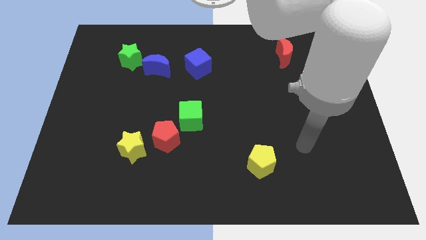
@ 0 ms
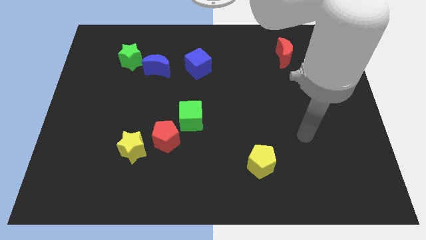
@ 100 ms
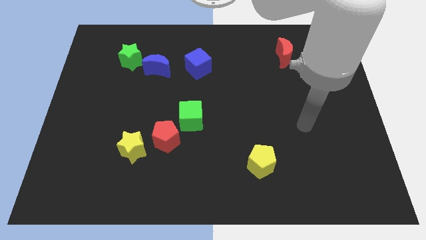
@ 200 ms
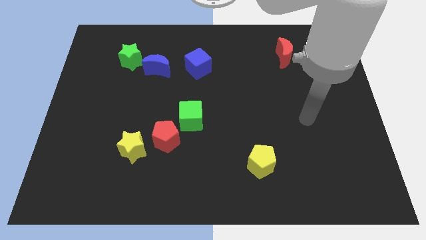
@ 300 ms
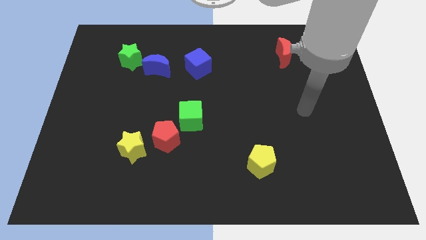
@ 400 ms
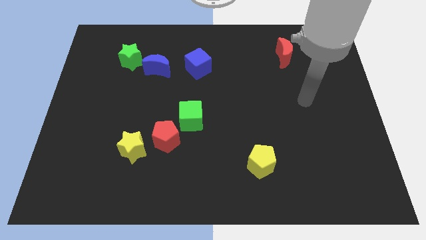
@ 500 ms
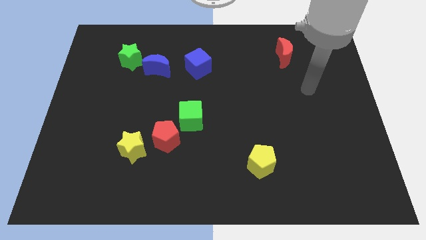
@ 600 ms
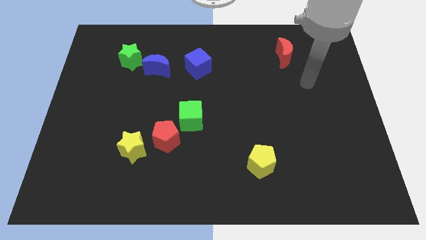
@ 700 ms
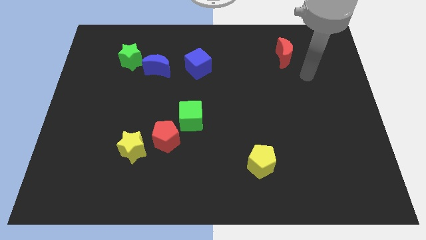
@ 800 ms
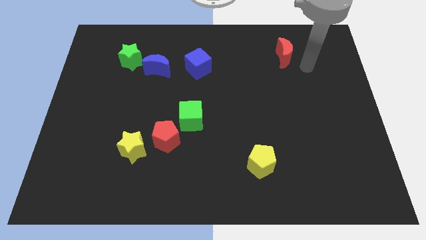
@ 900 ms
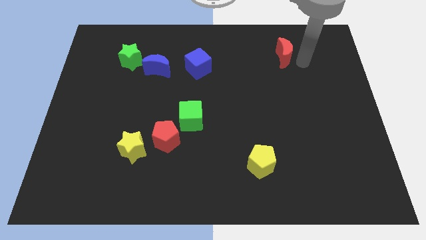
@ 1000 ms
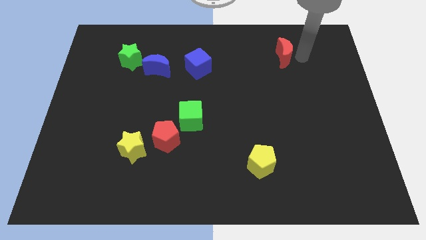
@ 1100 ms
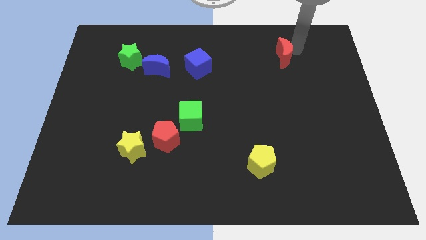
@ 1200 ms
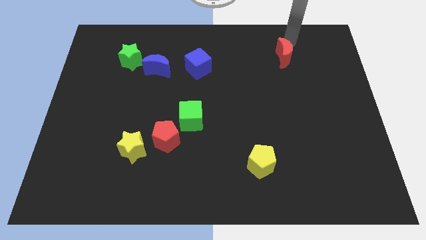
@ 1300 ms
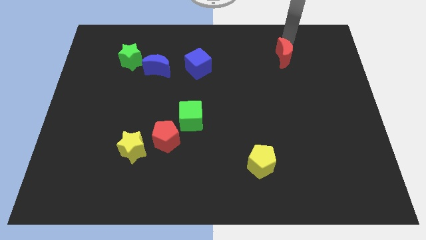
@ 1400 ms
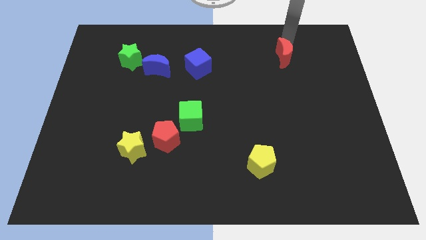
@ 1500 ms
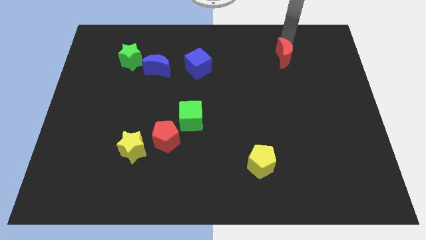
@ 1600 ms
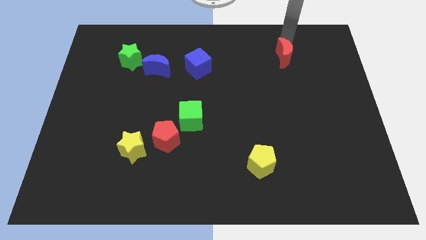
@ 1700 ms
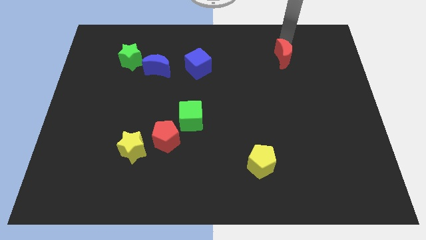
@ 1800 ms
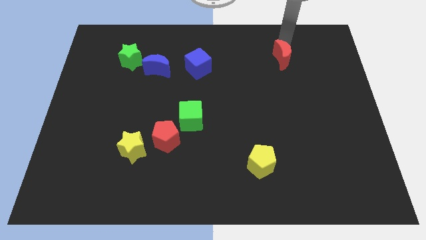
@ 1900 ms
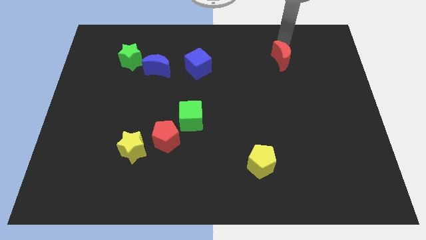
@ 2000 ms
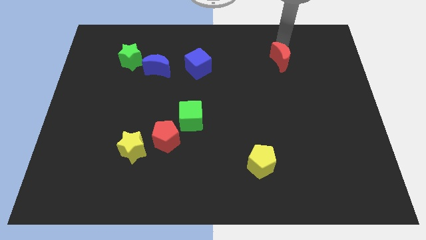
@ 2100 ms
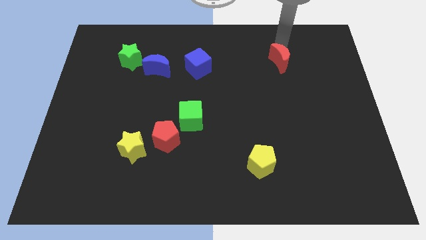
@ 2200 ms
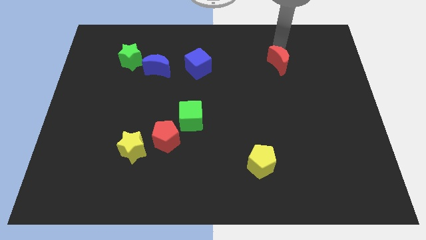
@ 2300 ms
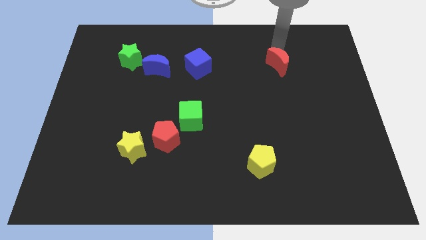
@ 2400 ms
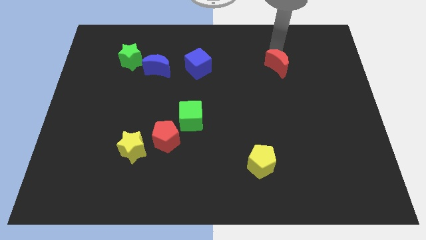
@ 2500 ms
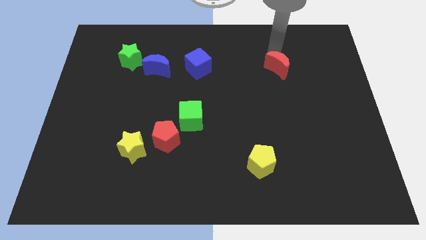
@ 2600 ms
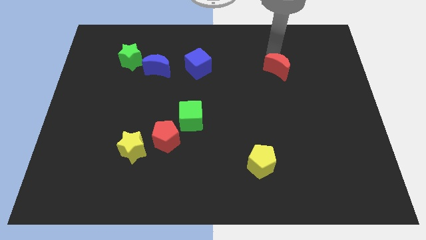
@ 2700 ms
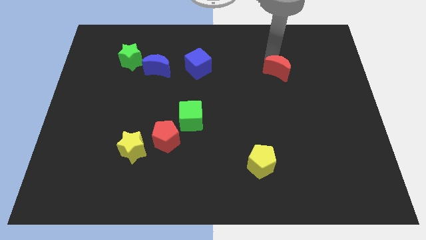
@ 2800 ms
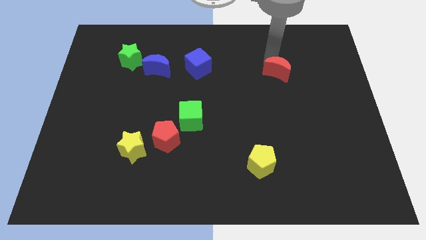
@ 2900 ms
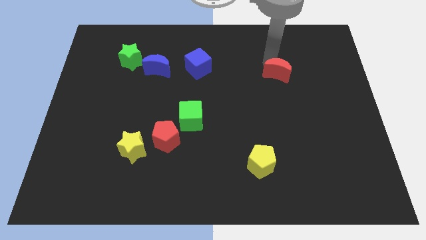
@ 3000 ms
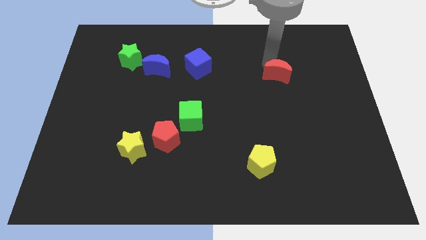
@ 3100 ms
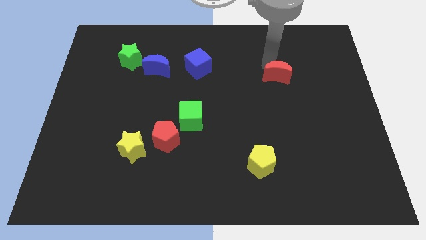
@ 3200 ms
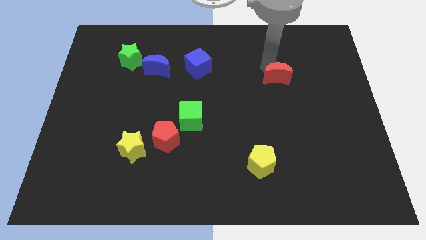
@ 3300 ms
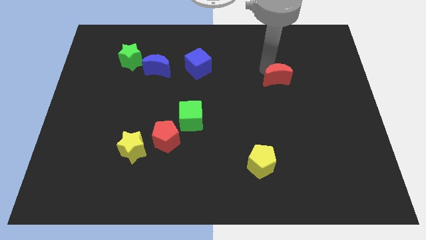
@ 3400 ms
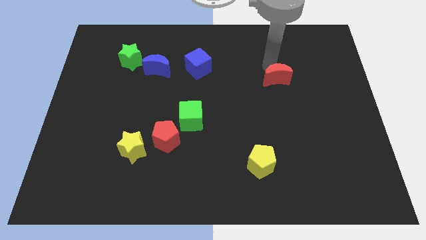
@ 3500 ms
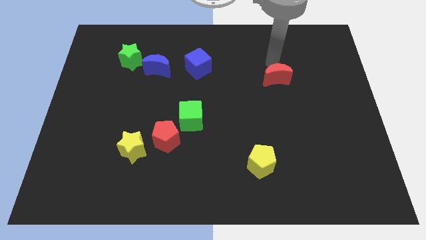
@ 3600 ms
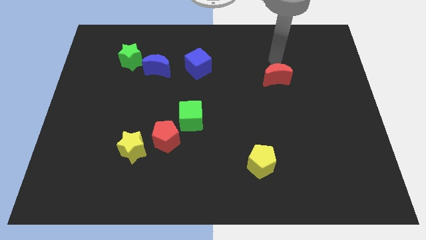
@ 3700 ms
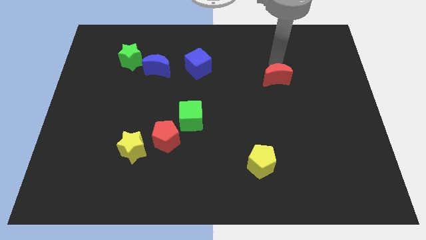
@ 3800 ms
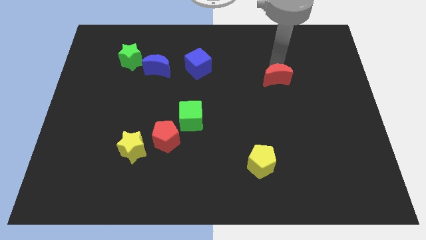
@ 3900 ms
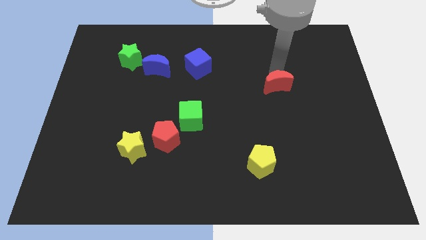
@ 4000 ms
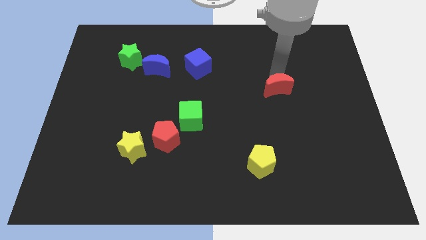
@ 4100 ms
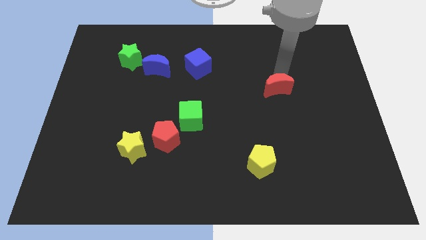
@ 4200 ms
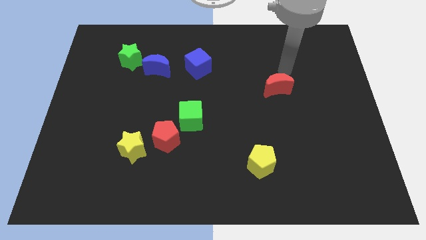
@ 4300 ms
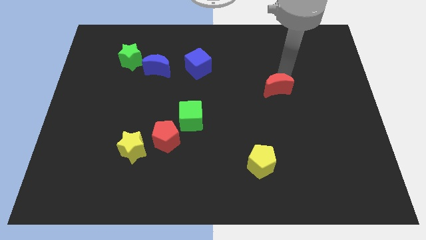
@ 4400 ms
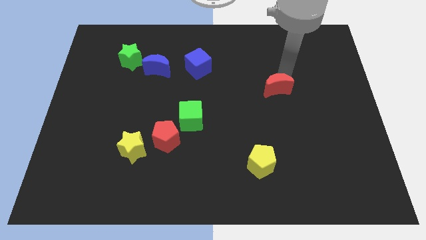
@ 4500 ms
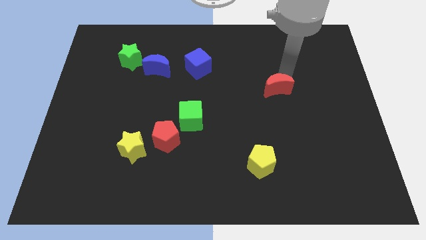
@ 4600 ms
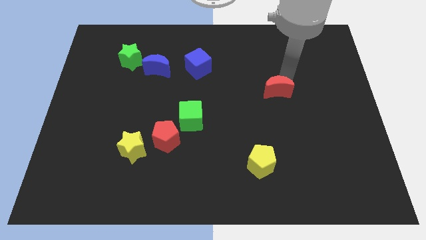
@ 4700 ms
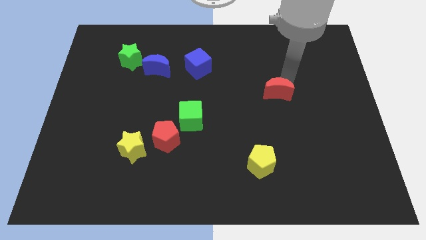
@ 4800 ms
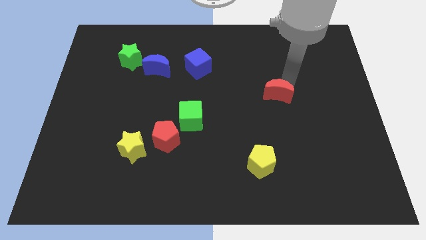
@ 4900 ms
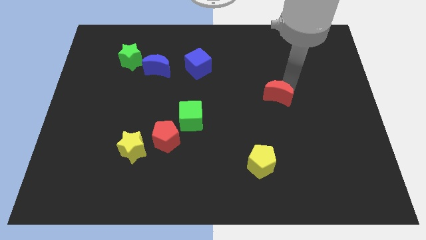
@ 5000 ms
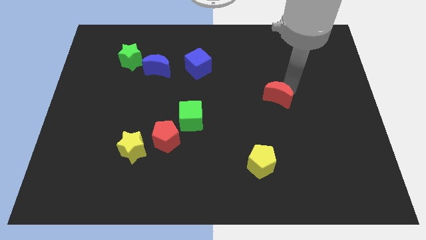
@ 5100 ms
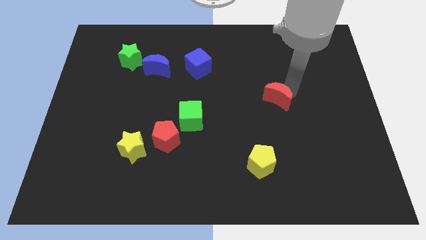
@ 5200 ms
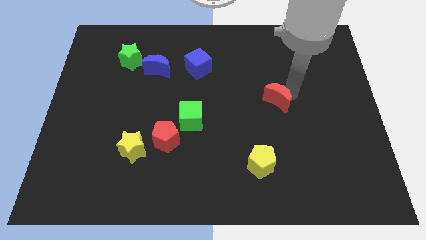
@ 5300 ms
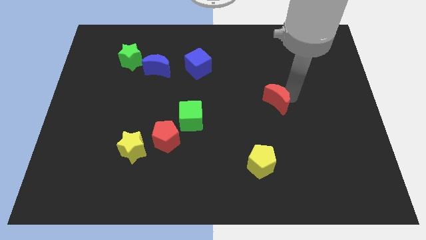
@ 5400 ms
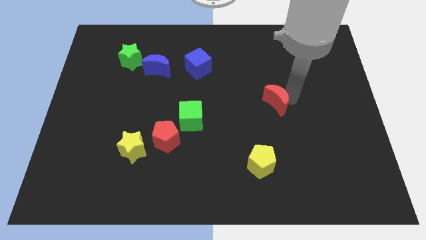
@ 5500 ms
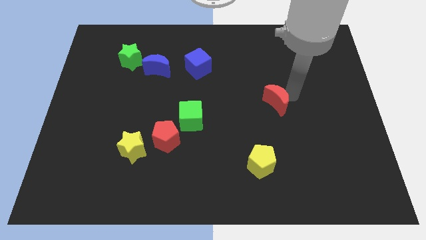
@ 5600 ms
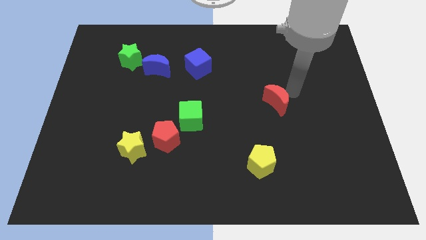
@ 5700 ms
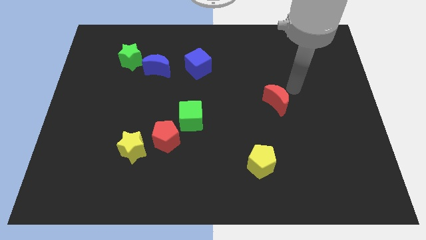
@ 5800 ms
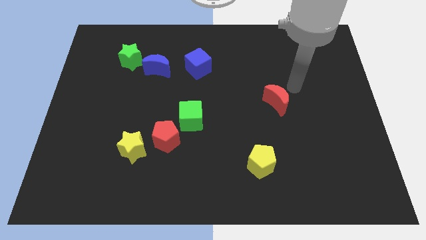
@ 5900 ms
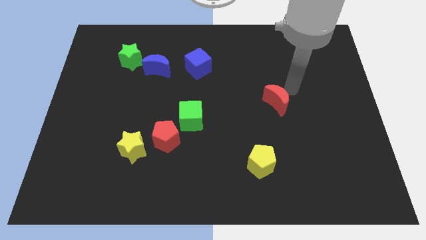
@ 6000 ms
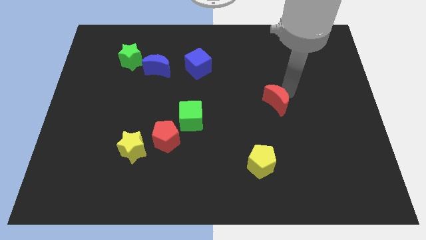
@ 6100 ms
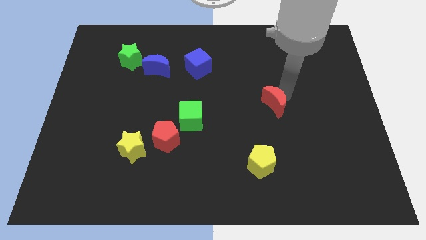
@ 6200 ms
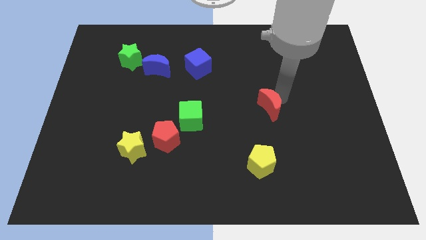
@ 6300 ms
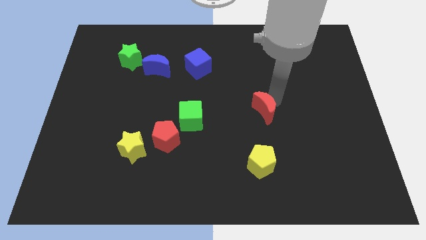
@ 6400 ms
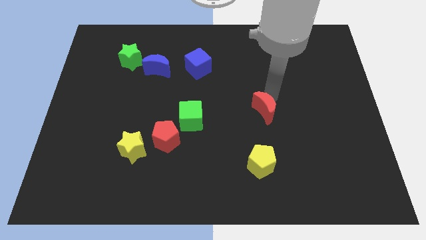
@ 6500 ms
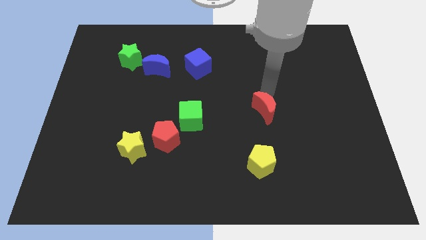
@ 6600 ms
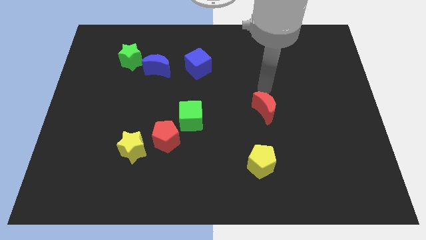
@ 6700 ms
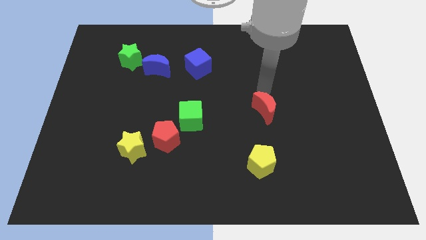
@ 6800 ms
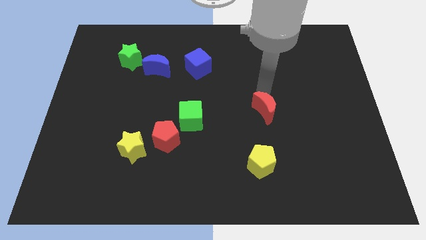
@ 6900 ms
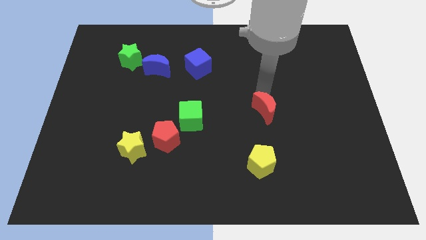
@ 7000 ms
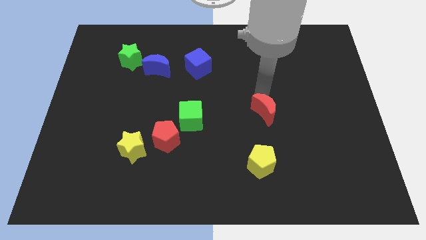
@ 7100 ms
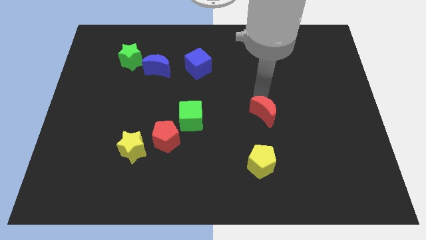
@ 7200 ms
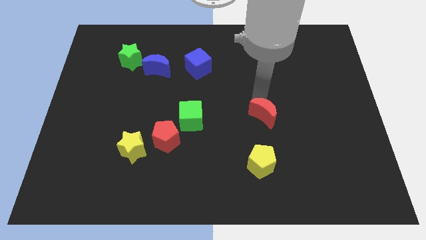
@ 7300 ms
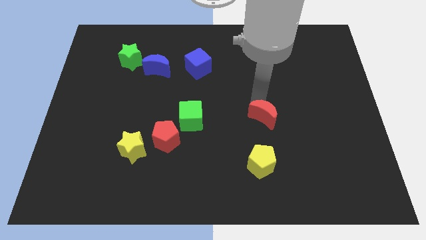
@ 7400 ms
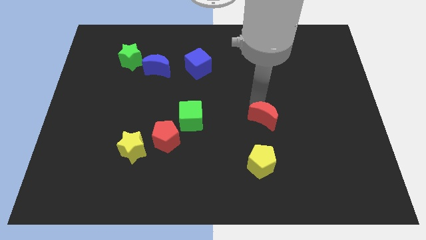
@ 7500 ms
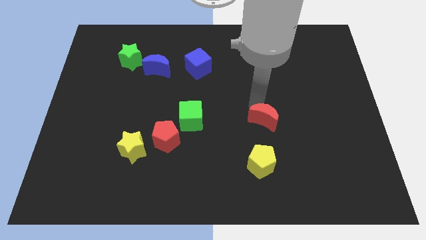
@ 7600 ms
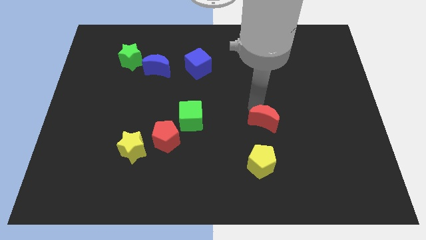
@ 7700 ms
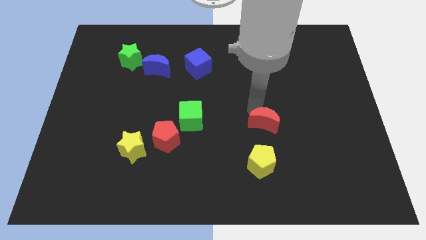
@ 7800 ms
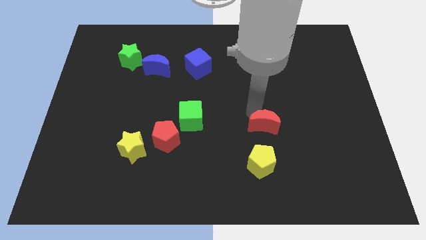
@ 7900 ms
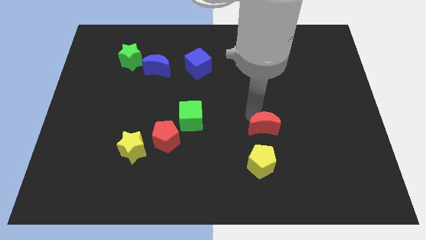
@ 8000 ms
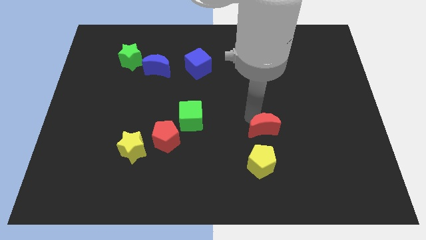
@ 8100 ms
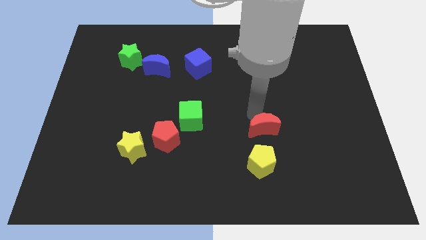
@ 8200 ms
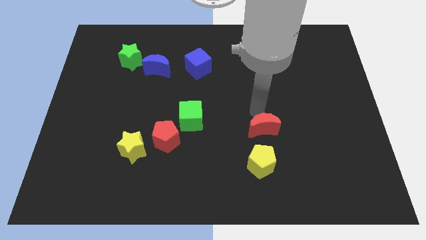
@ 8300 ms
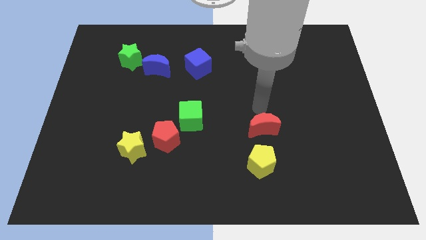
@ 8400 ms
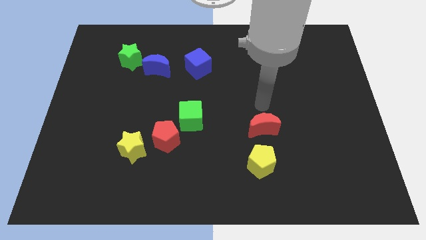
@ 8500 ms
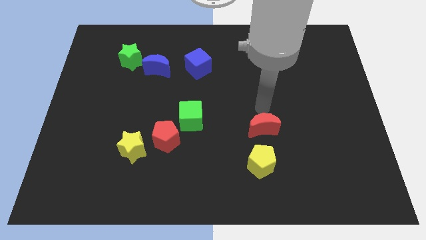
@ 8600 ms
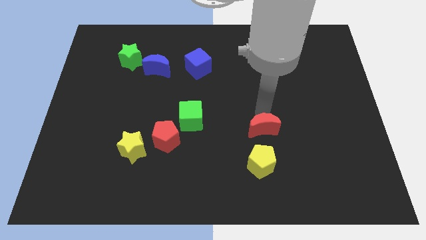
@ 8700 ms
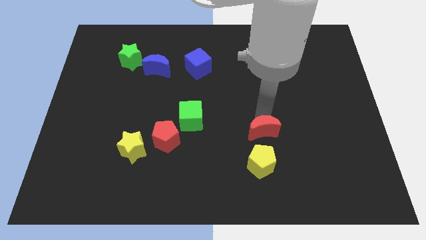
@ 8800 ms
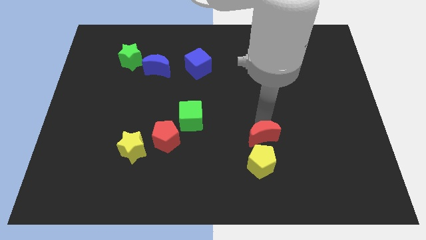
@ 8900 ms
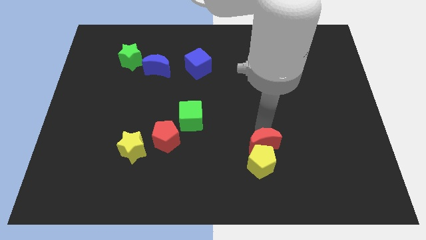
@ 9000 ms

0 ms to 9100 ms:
move the red moon next to the yellow pentagon
